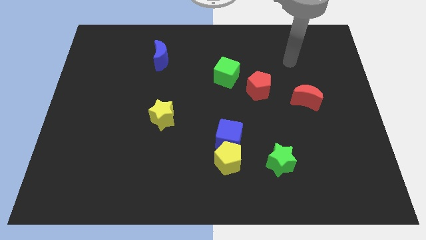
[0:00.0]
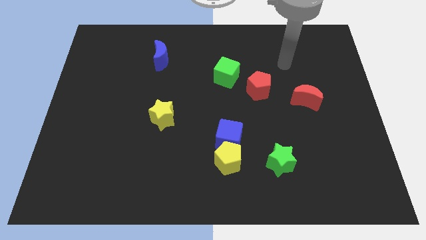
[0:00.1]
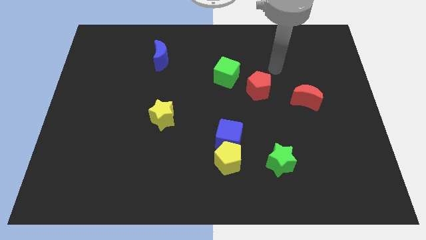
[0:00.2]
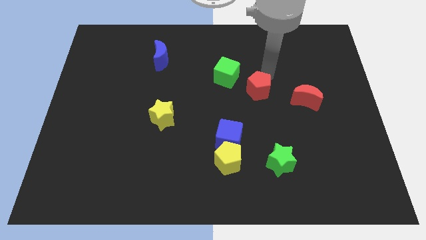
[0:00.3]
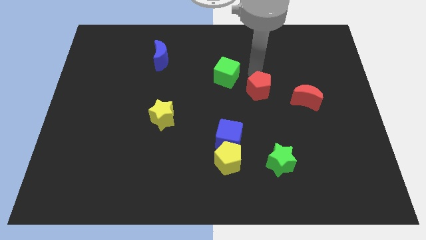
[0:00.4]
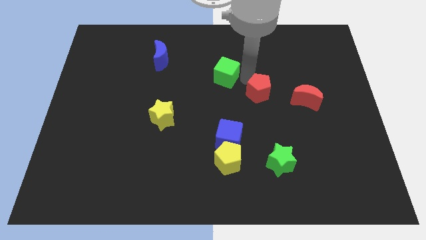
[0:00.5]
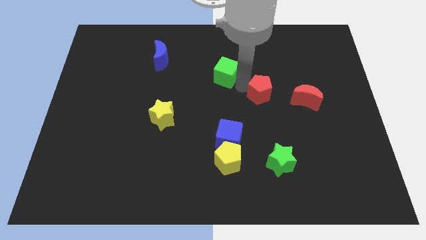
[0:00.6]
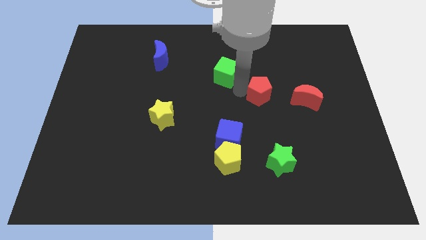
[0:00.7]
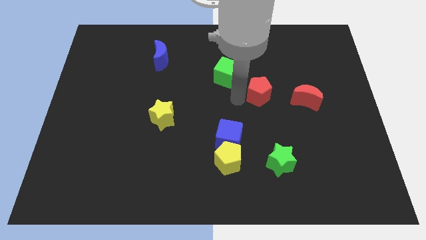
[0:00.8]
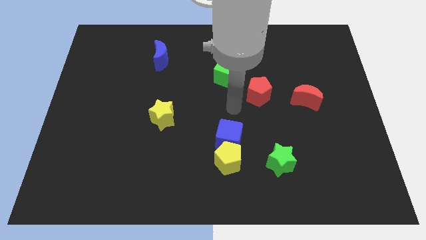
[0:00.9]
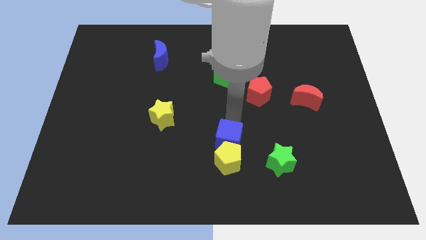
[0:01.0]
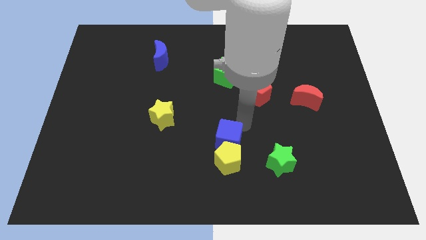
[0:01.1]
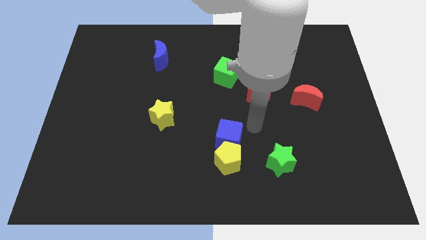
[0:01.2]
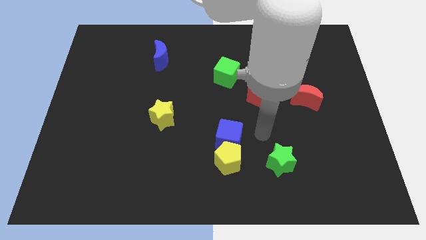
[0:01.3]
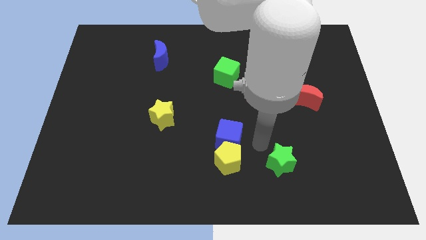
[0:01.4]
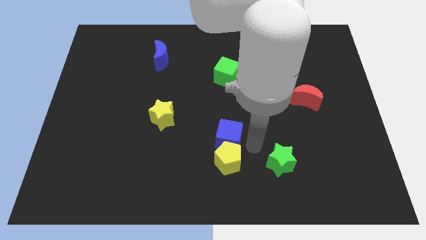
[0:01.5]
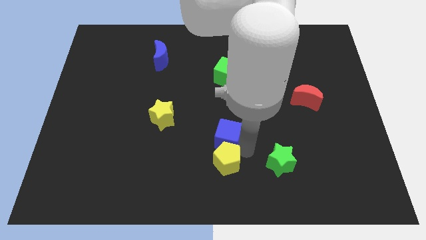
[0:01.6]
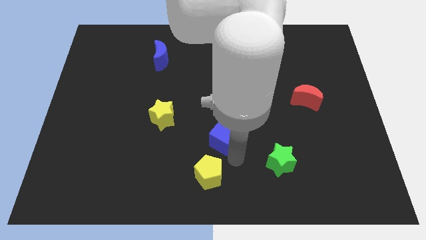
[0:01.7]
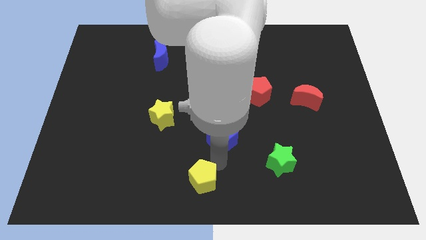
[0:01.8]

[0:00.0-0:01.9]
separate the blue cube from the yellow pentagon

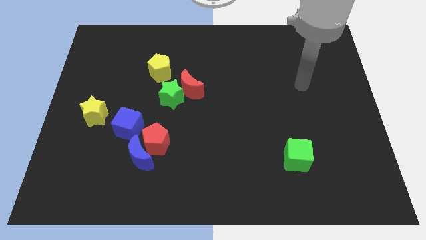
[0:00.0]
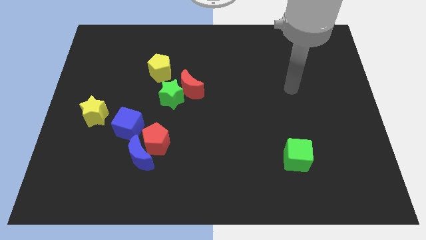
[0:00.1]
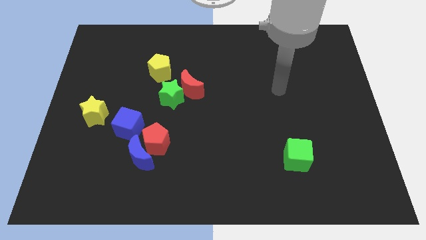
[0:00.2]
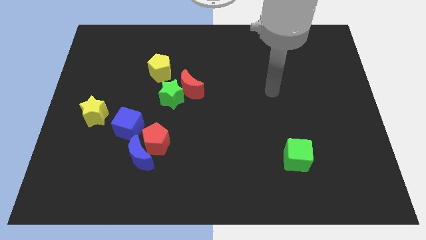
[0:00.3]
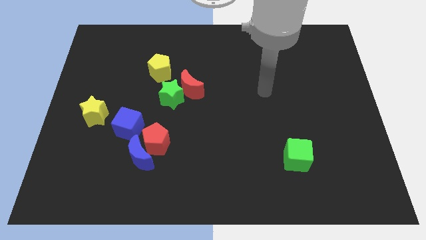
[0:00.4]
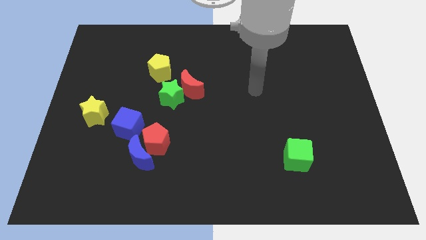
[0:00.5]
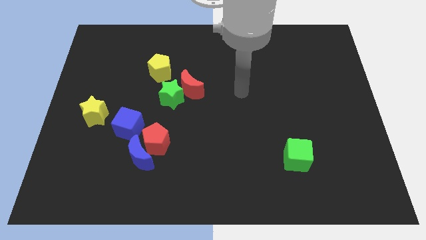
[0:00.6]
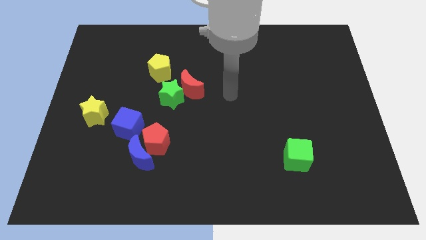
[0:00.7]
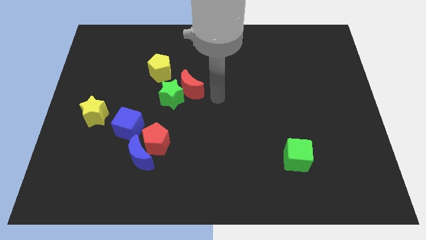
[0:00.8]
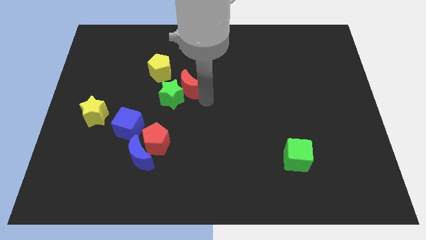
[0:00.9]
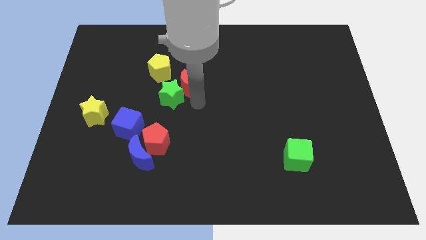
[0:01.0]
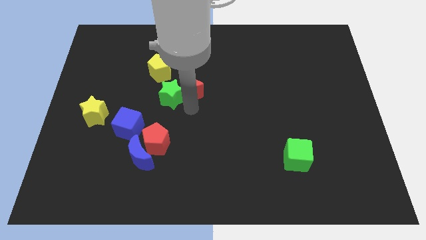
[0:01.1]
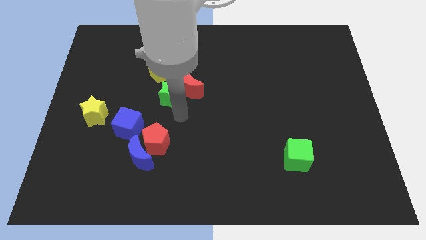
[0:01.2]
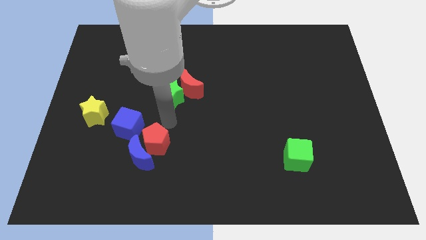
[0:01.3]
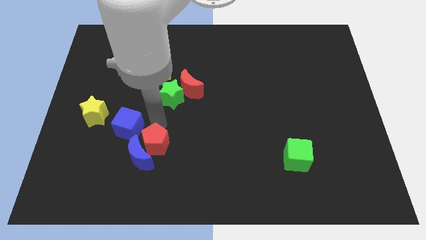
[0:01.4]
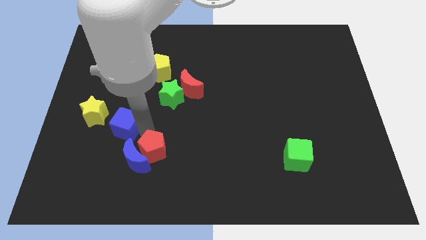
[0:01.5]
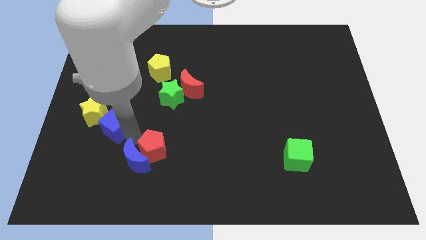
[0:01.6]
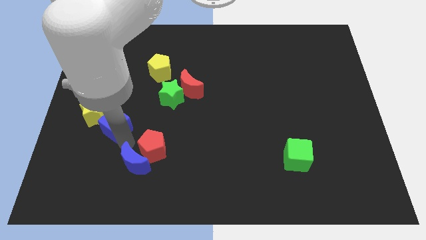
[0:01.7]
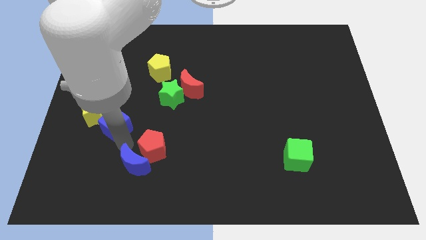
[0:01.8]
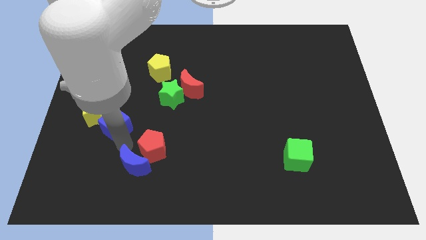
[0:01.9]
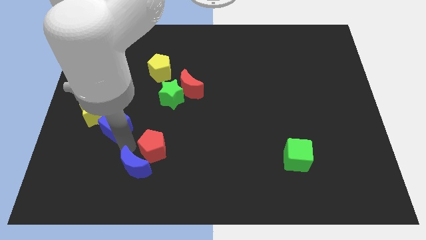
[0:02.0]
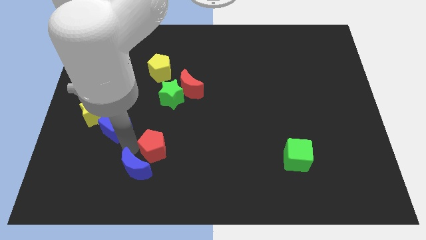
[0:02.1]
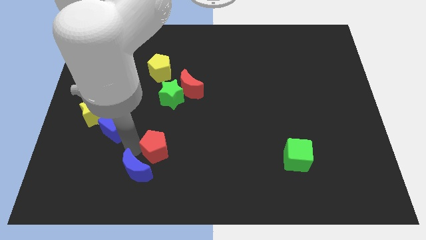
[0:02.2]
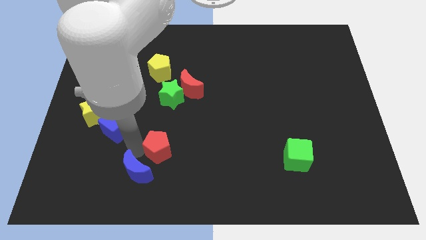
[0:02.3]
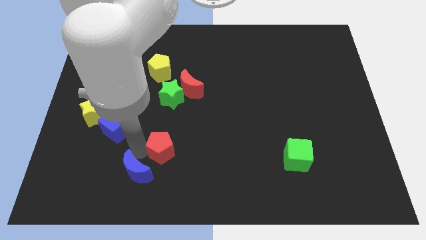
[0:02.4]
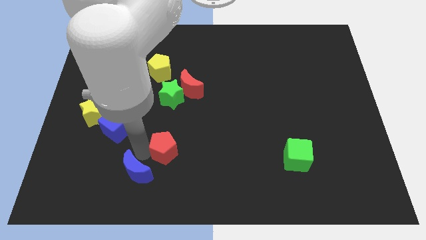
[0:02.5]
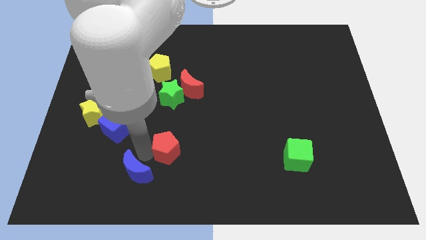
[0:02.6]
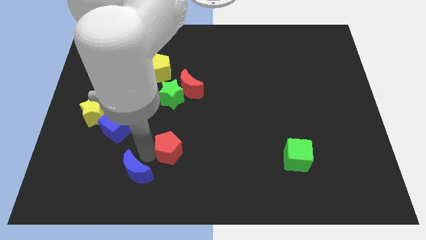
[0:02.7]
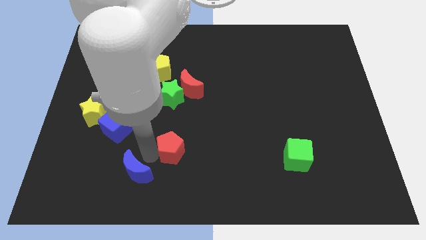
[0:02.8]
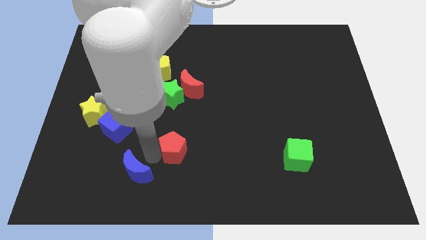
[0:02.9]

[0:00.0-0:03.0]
pull the red pentagon apart from the blue moon and blue cube

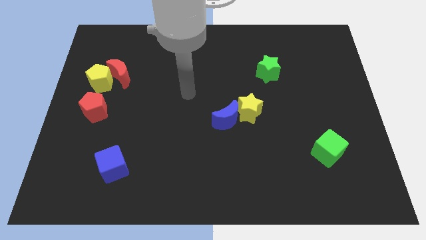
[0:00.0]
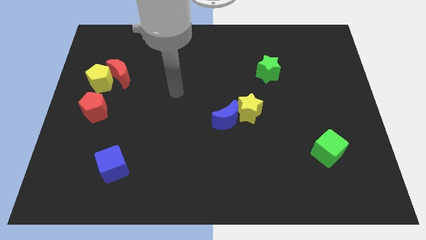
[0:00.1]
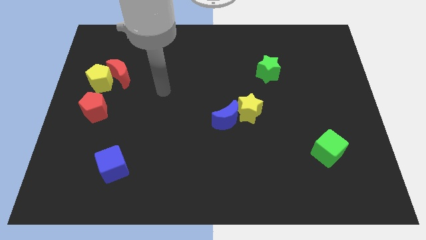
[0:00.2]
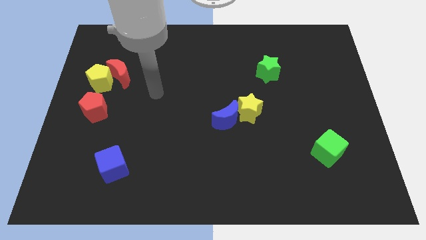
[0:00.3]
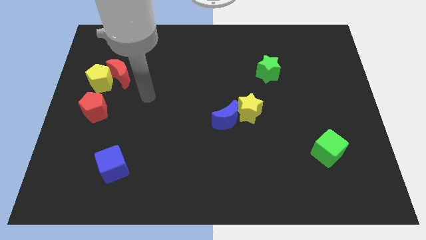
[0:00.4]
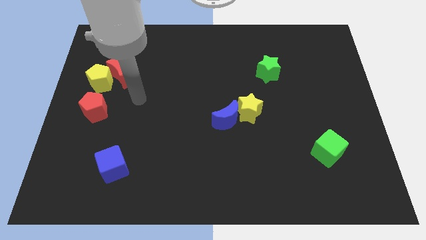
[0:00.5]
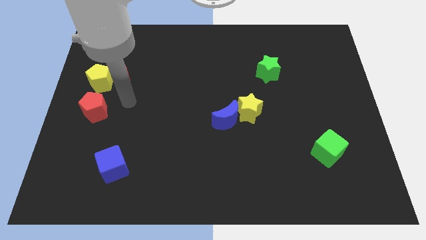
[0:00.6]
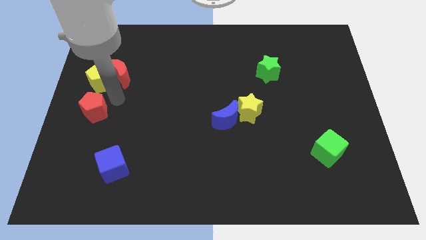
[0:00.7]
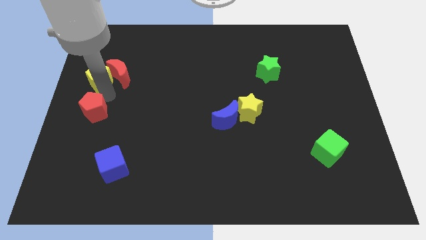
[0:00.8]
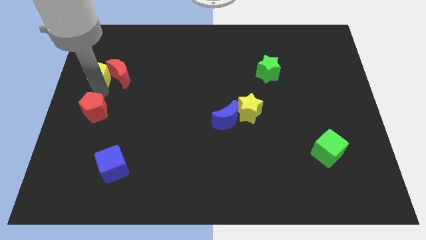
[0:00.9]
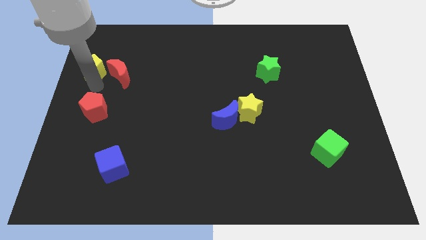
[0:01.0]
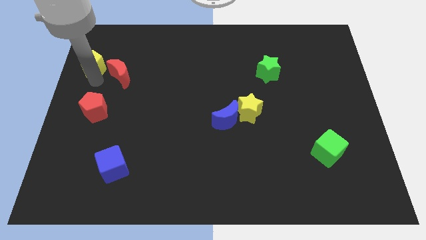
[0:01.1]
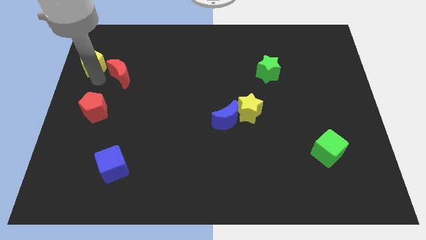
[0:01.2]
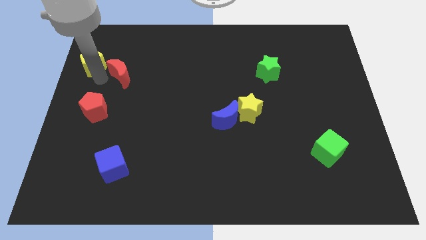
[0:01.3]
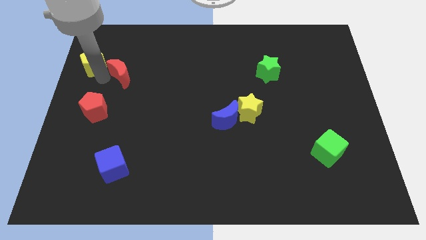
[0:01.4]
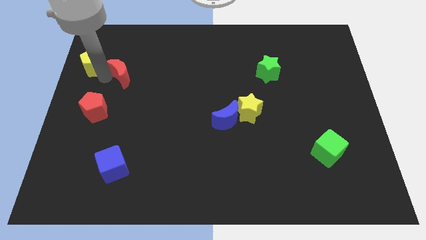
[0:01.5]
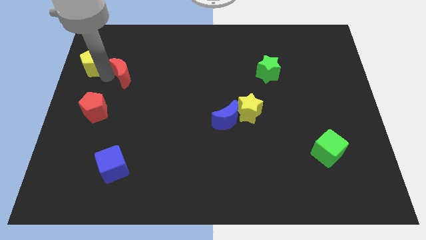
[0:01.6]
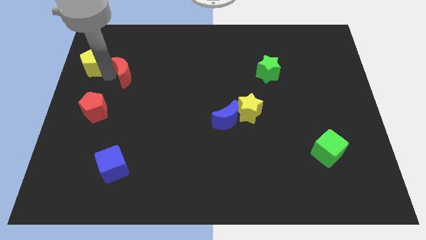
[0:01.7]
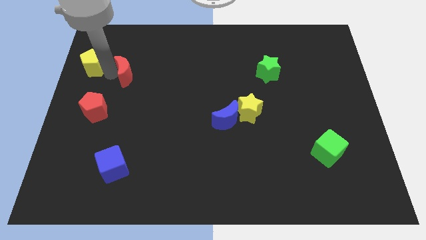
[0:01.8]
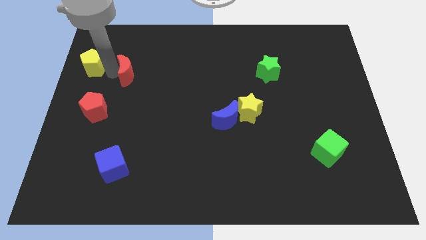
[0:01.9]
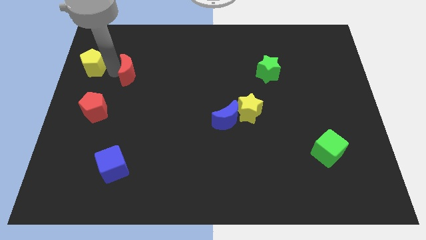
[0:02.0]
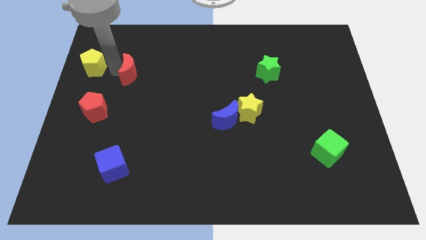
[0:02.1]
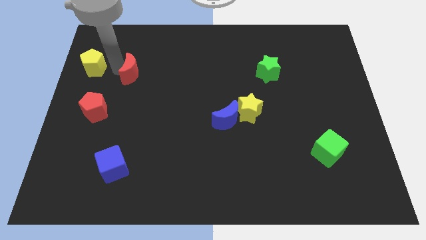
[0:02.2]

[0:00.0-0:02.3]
pull the red moon apart from the yellow pentagon

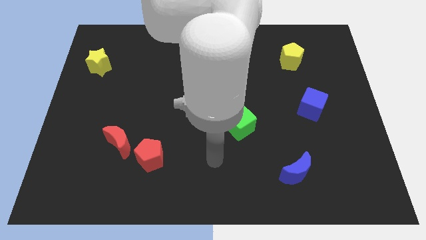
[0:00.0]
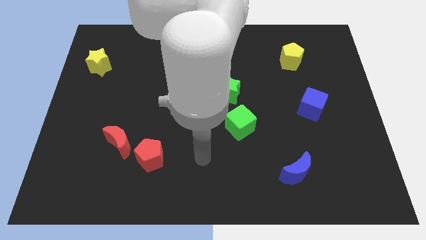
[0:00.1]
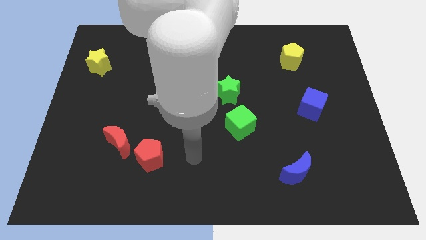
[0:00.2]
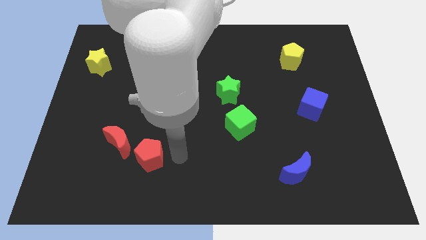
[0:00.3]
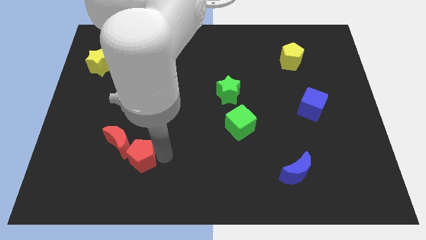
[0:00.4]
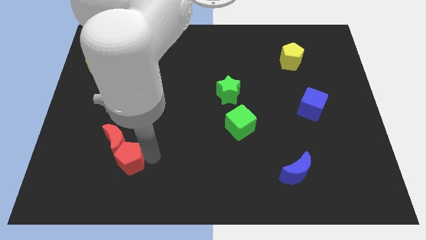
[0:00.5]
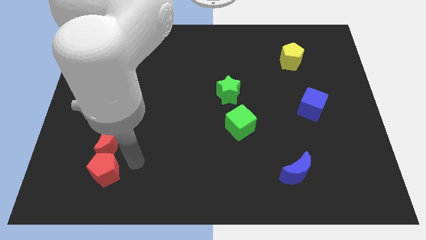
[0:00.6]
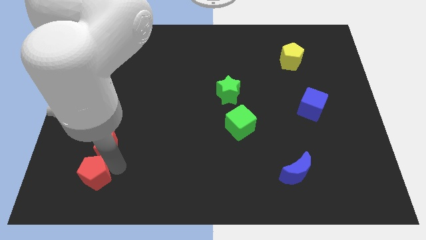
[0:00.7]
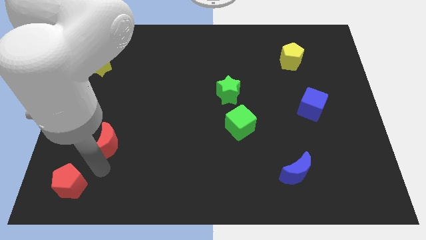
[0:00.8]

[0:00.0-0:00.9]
move the red moon away from the red pentagon

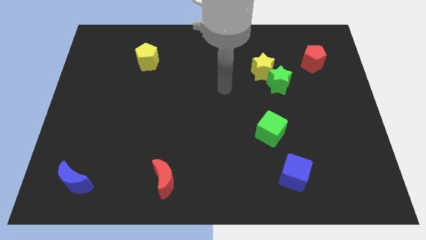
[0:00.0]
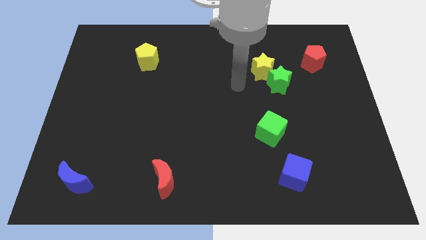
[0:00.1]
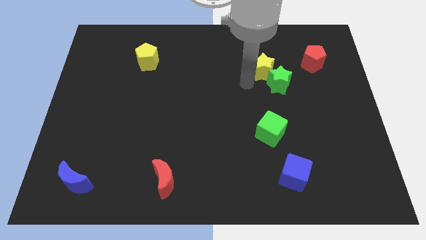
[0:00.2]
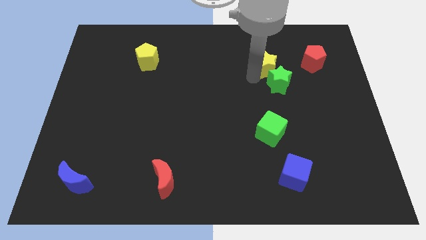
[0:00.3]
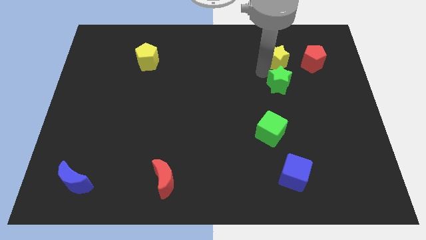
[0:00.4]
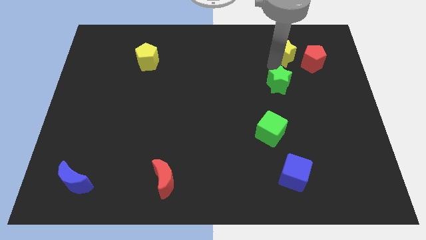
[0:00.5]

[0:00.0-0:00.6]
move the green star away from the yellow star

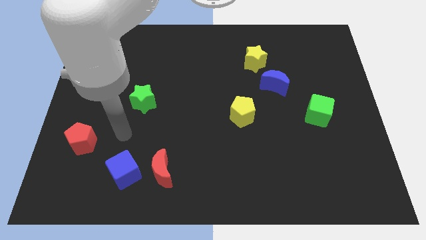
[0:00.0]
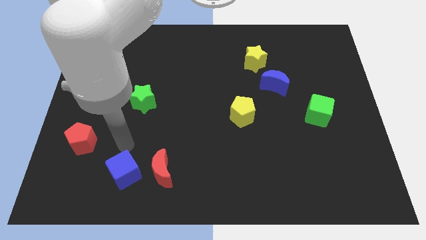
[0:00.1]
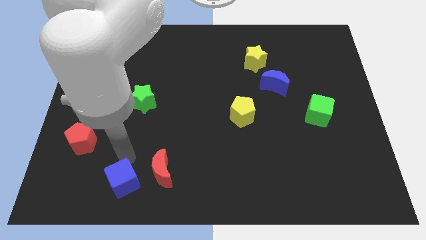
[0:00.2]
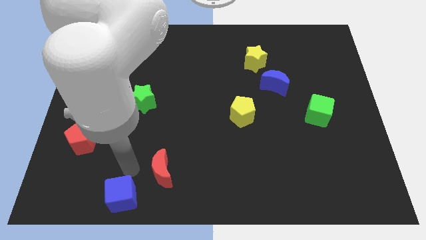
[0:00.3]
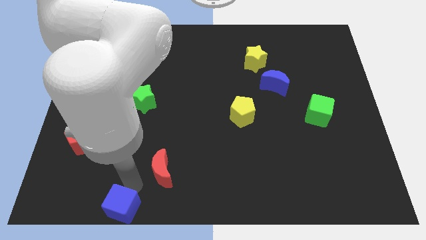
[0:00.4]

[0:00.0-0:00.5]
move the red moon away from the blue cube
